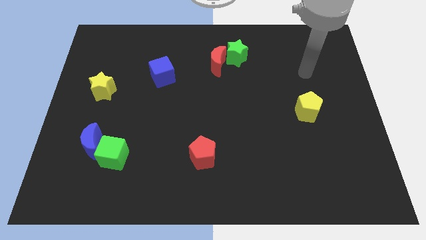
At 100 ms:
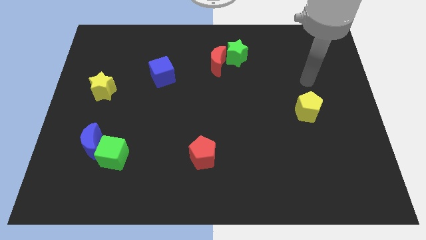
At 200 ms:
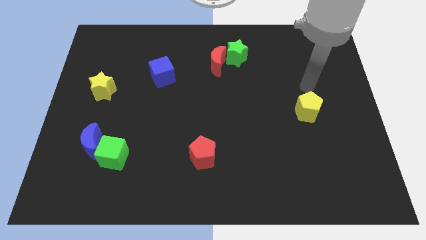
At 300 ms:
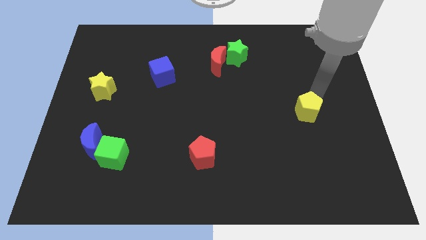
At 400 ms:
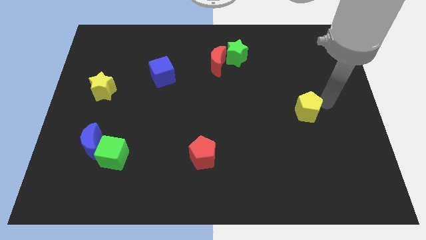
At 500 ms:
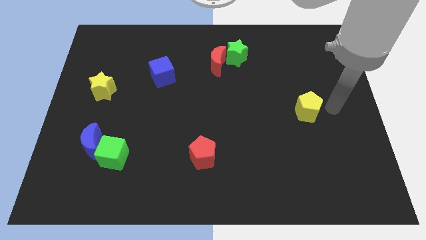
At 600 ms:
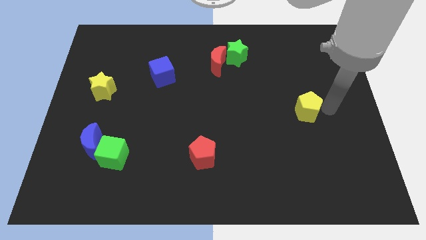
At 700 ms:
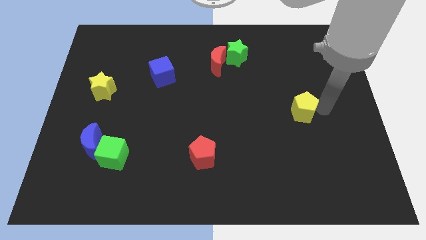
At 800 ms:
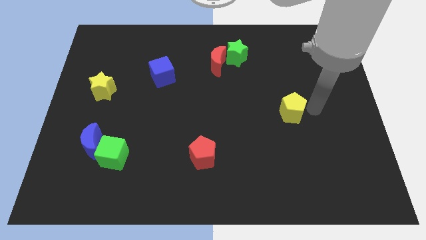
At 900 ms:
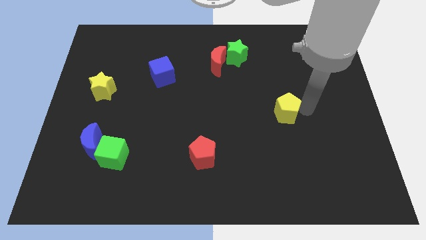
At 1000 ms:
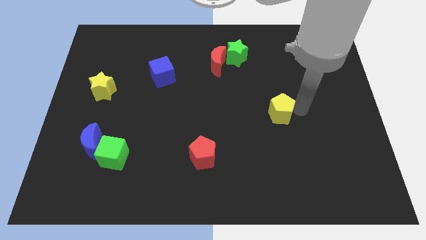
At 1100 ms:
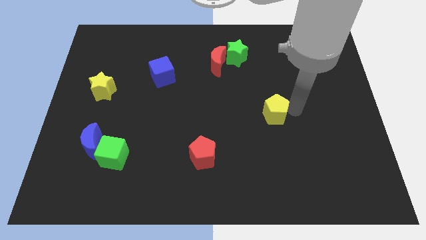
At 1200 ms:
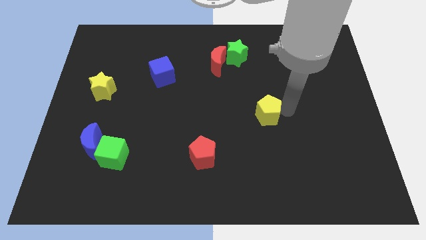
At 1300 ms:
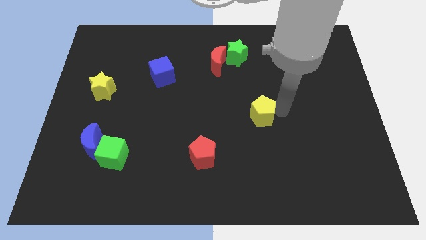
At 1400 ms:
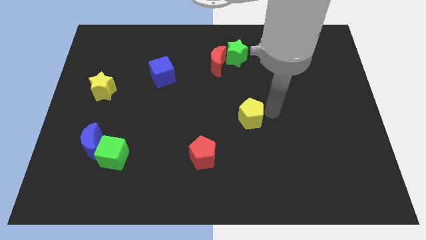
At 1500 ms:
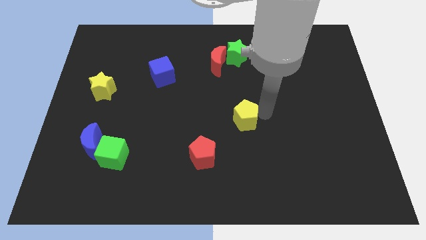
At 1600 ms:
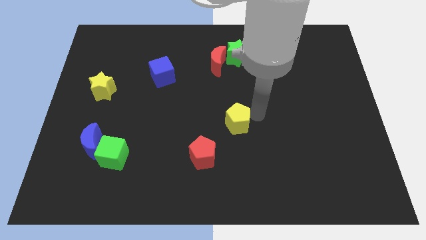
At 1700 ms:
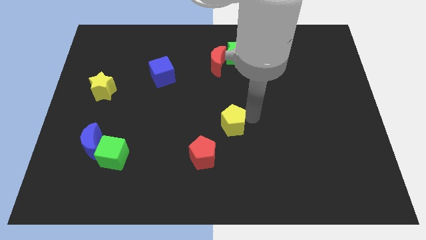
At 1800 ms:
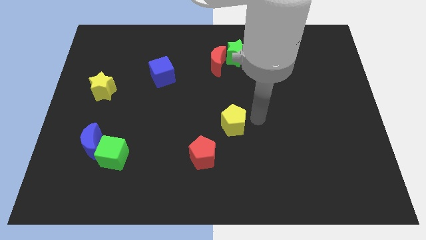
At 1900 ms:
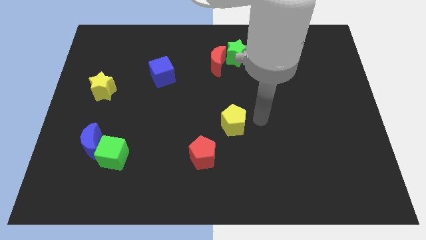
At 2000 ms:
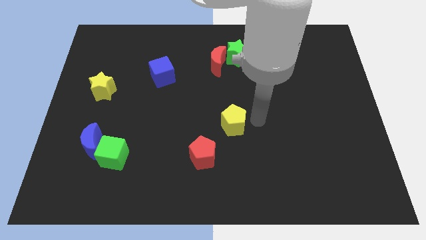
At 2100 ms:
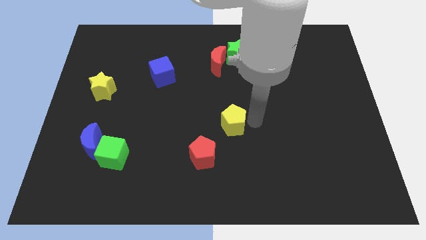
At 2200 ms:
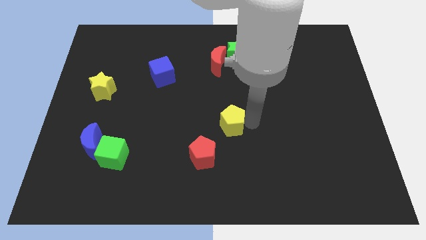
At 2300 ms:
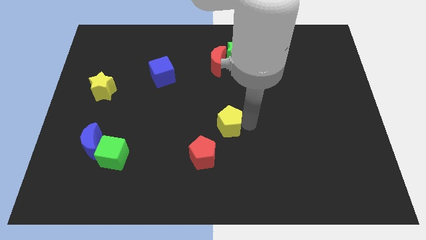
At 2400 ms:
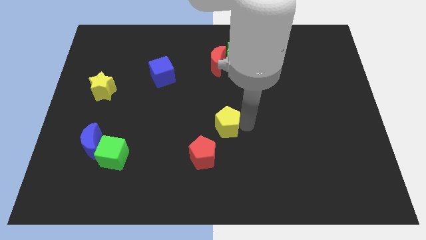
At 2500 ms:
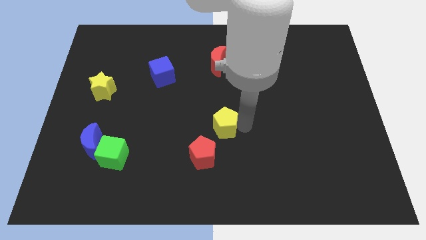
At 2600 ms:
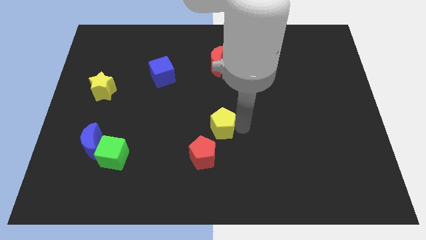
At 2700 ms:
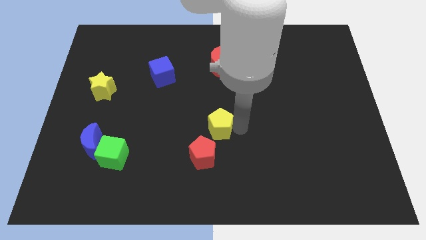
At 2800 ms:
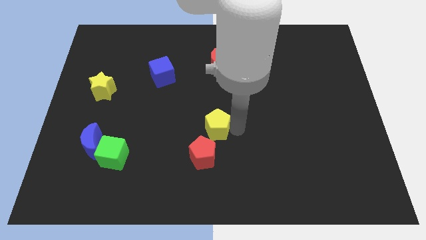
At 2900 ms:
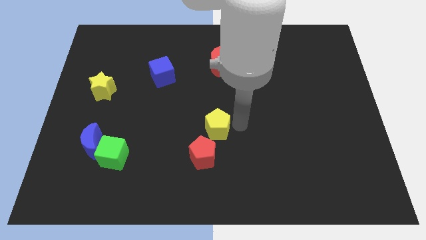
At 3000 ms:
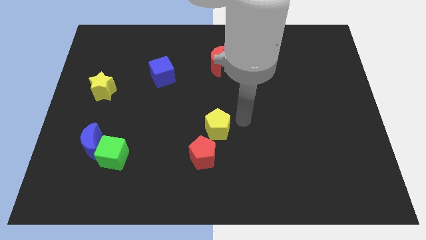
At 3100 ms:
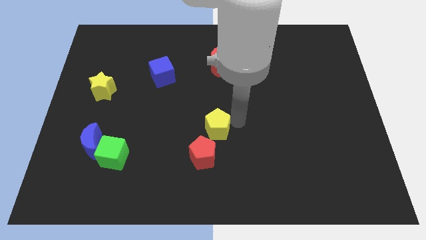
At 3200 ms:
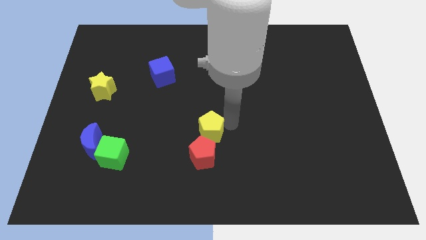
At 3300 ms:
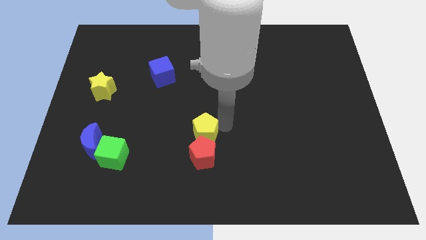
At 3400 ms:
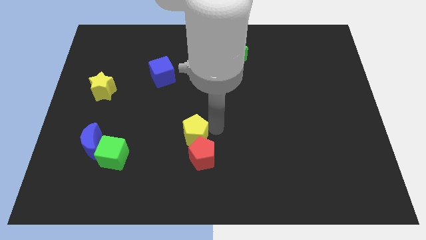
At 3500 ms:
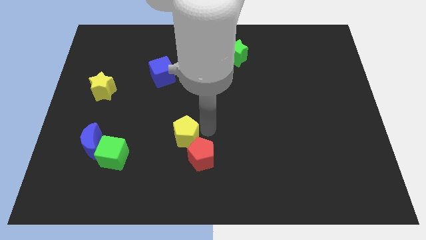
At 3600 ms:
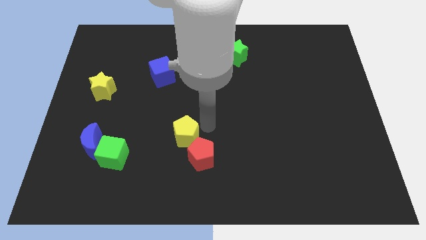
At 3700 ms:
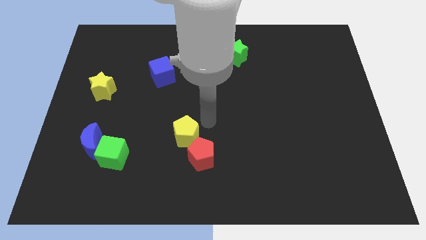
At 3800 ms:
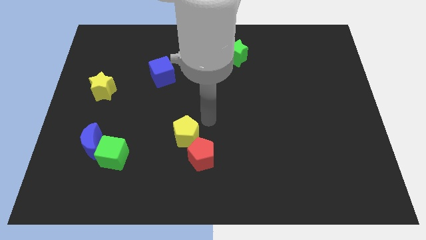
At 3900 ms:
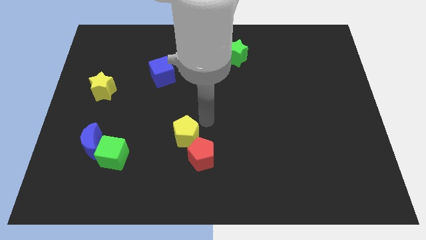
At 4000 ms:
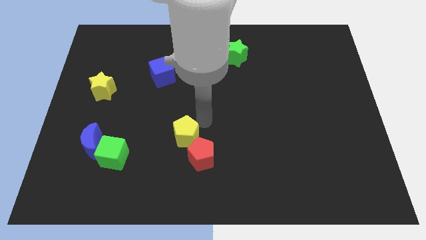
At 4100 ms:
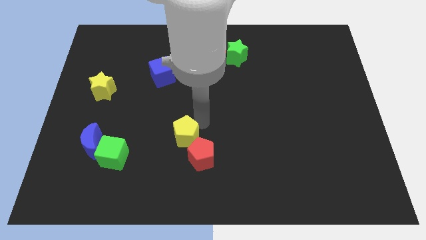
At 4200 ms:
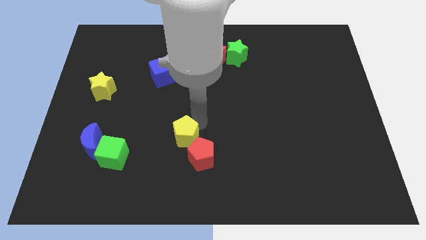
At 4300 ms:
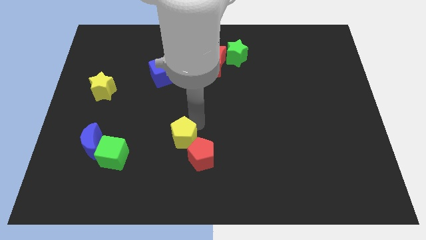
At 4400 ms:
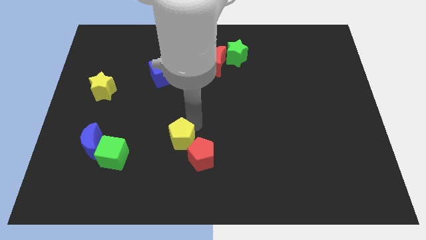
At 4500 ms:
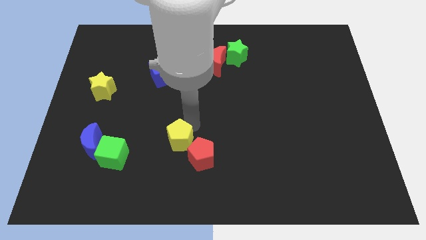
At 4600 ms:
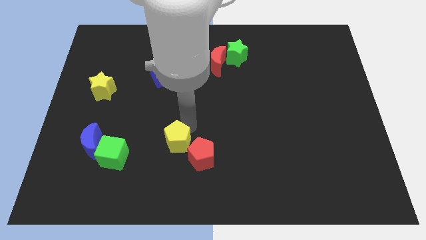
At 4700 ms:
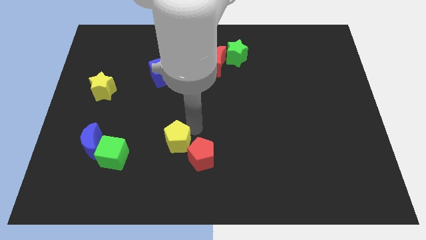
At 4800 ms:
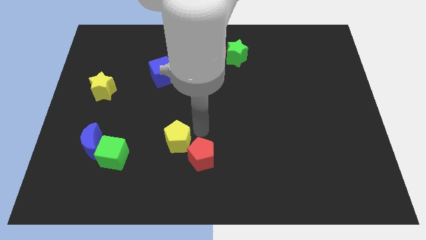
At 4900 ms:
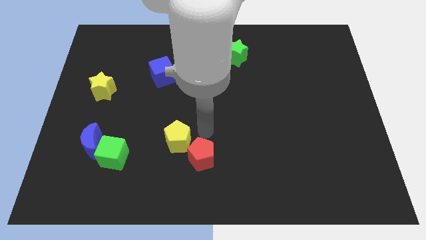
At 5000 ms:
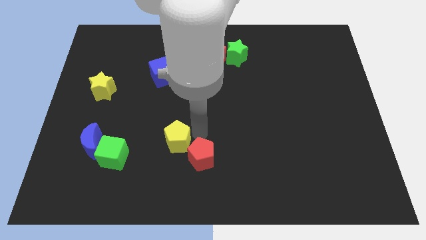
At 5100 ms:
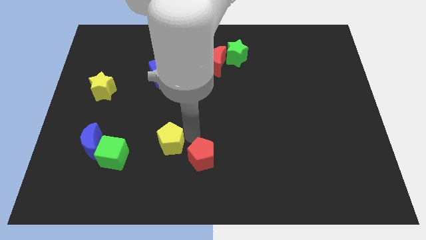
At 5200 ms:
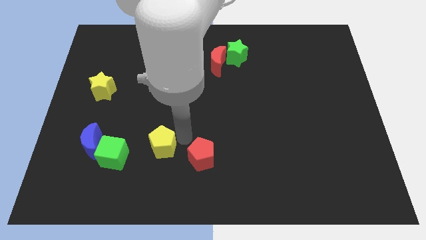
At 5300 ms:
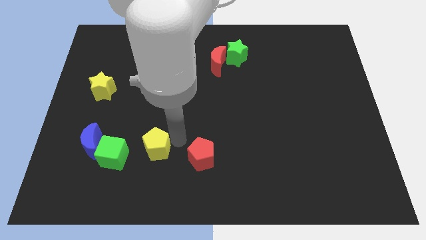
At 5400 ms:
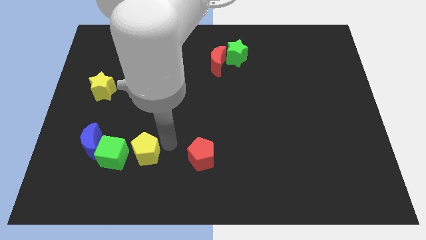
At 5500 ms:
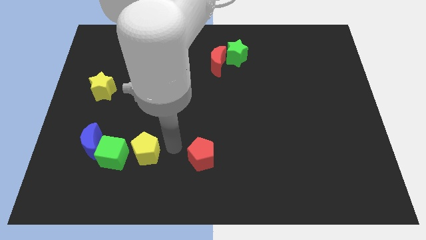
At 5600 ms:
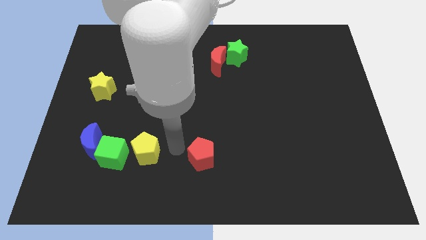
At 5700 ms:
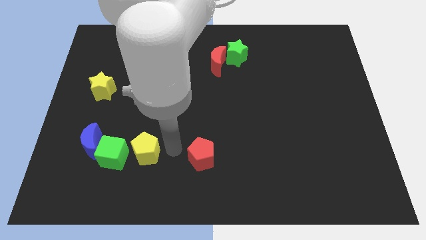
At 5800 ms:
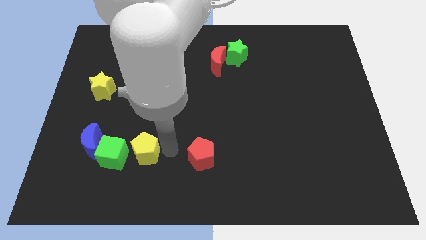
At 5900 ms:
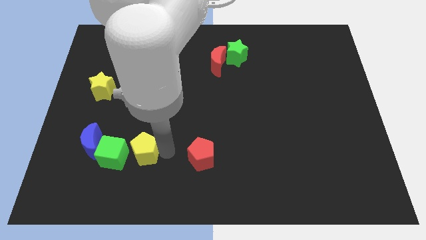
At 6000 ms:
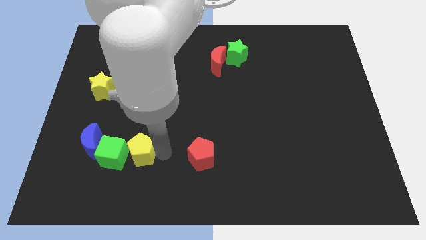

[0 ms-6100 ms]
slide the yellow pentagon towards the green cube

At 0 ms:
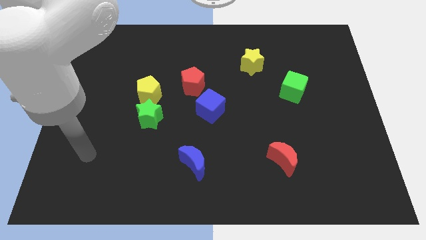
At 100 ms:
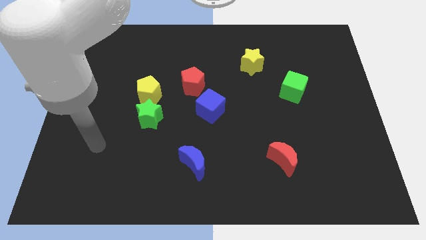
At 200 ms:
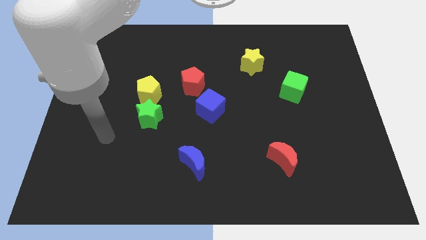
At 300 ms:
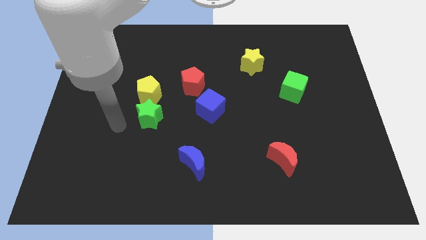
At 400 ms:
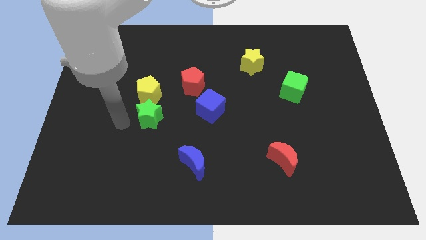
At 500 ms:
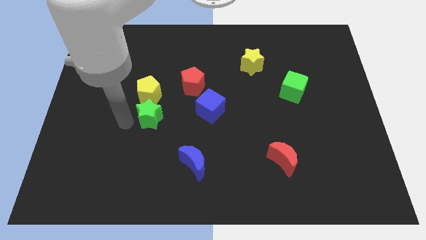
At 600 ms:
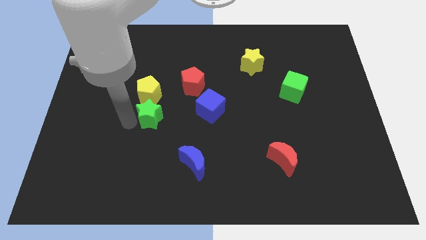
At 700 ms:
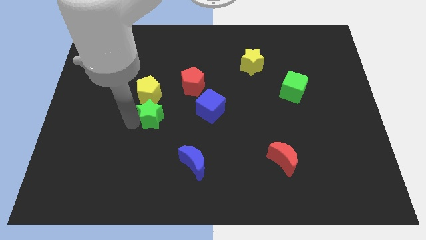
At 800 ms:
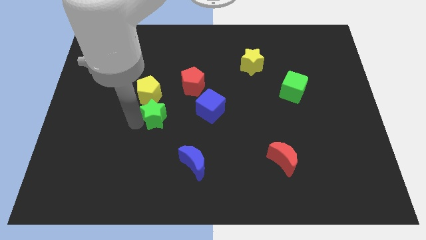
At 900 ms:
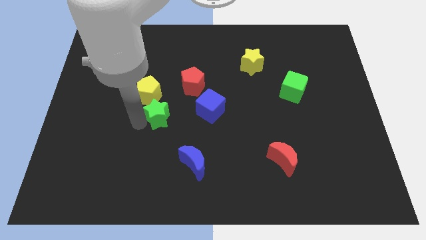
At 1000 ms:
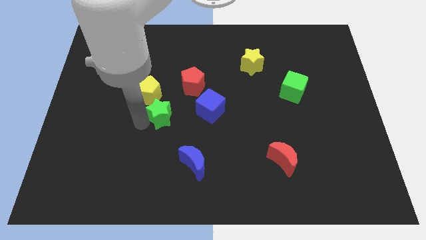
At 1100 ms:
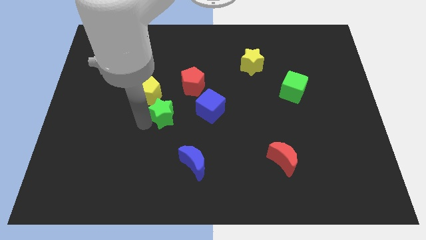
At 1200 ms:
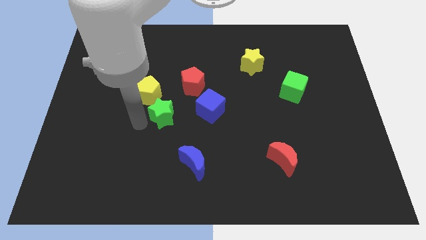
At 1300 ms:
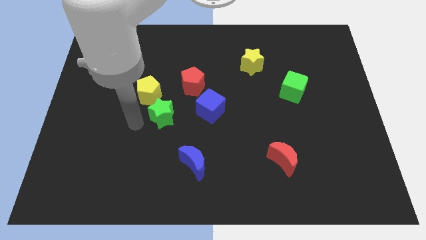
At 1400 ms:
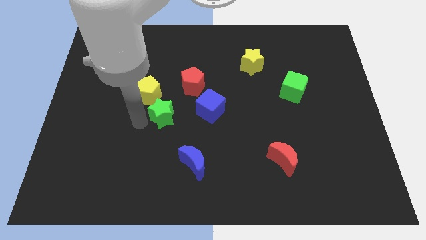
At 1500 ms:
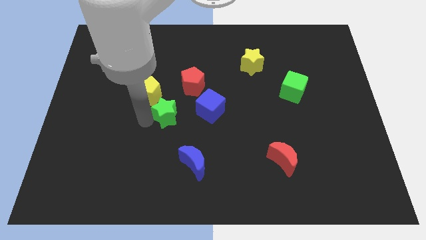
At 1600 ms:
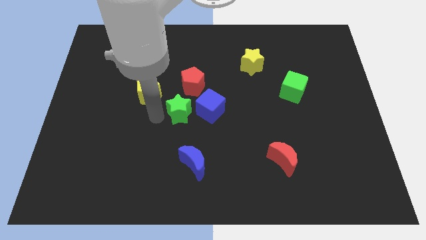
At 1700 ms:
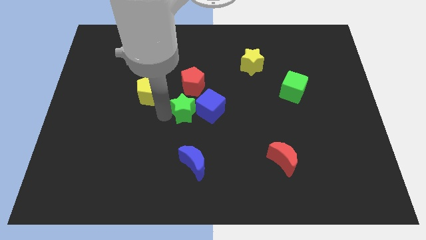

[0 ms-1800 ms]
push the green star next to the blue cube
